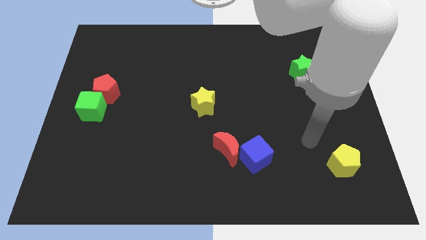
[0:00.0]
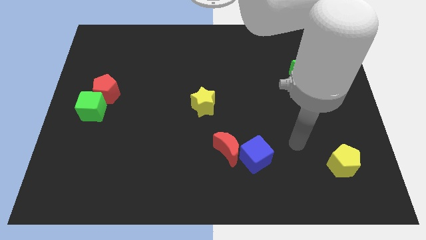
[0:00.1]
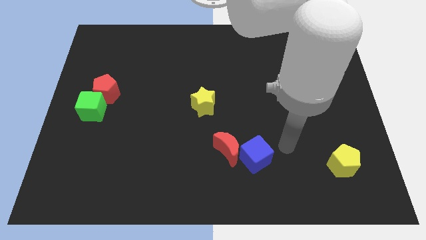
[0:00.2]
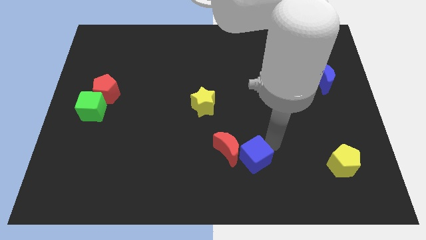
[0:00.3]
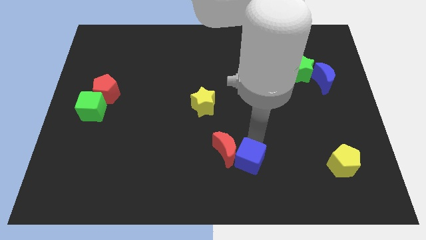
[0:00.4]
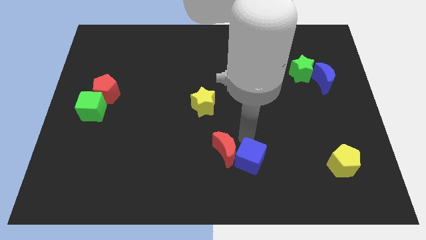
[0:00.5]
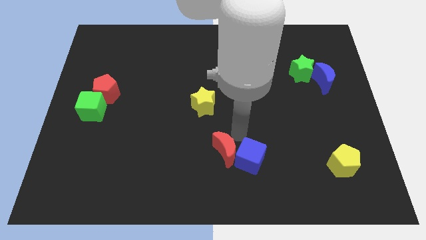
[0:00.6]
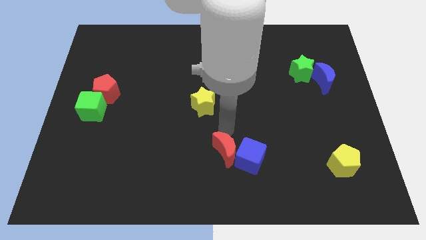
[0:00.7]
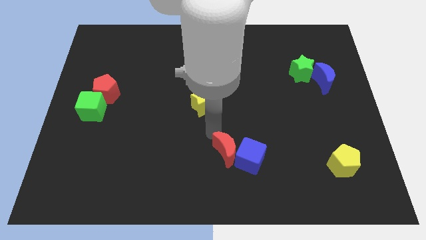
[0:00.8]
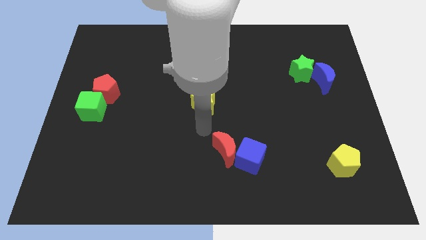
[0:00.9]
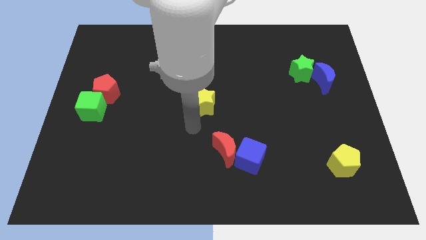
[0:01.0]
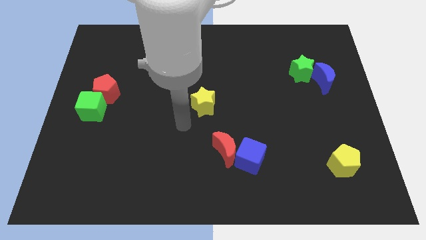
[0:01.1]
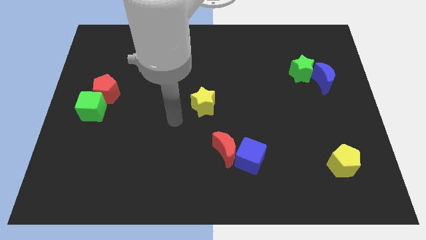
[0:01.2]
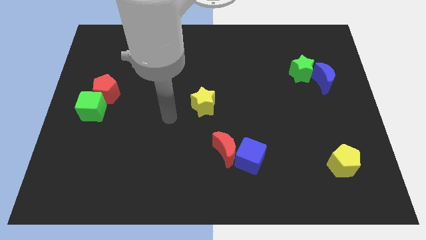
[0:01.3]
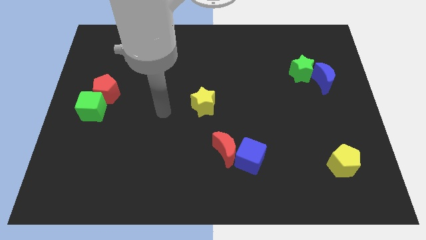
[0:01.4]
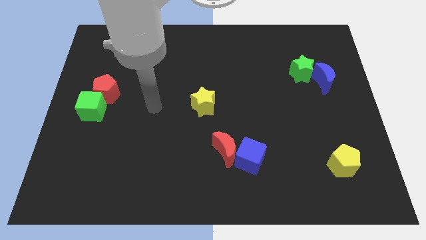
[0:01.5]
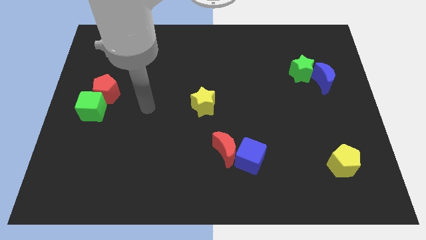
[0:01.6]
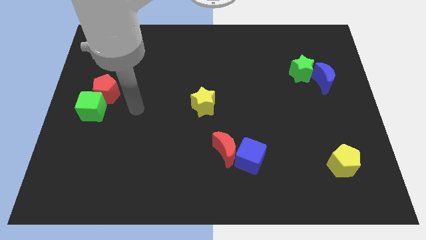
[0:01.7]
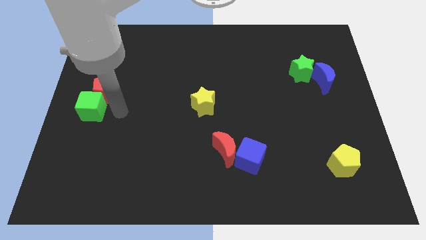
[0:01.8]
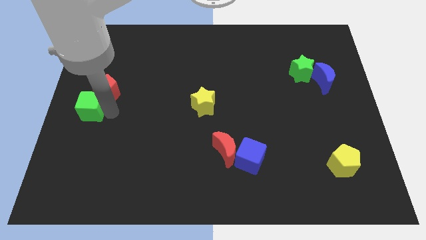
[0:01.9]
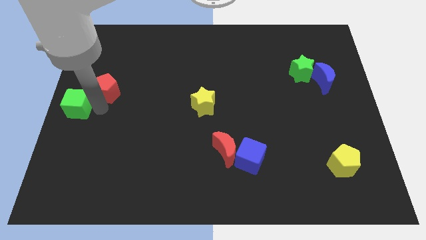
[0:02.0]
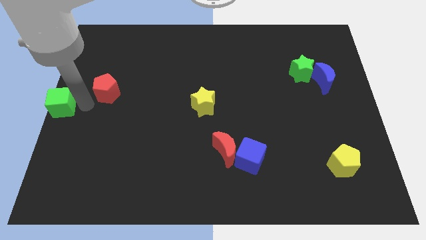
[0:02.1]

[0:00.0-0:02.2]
move the red pentagon away from the green cube

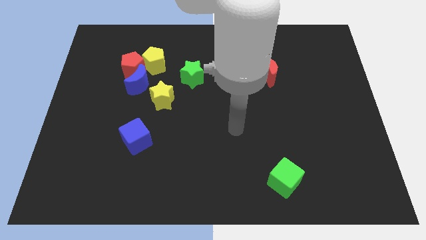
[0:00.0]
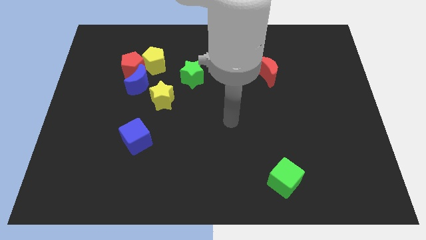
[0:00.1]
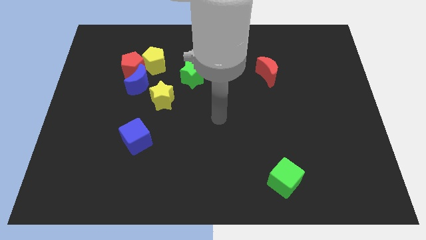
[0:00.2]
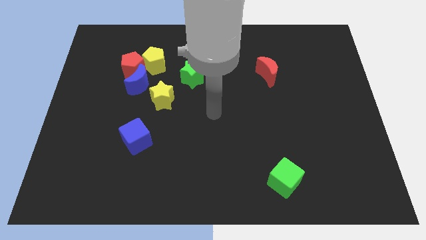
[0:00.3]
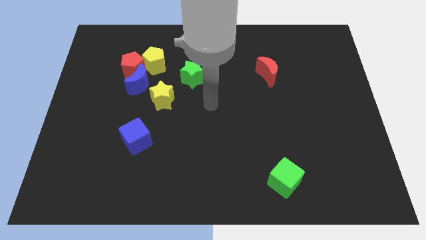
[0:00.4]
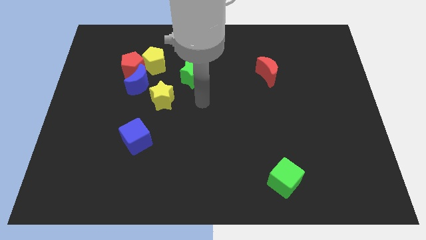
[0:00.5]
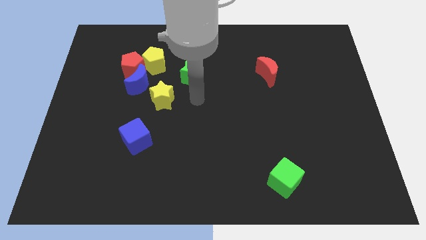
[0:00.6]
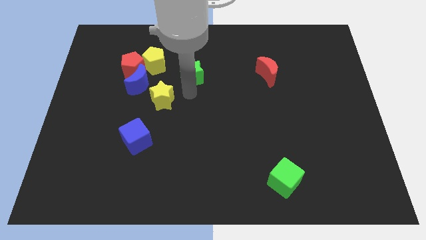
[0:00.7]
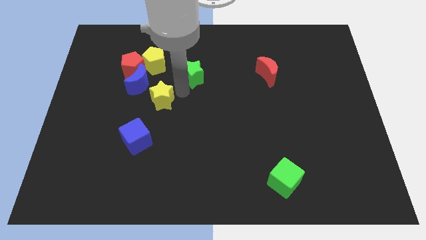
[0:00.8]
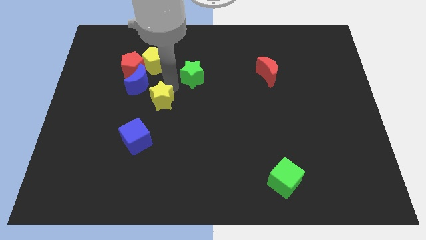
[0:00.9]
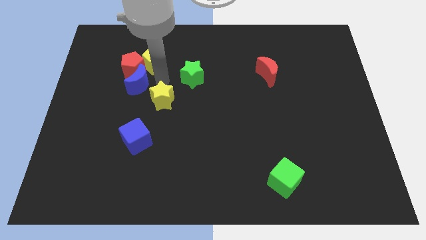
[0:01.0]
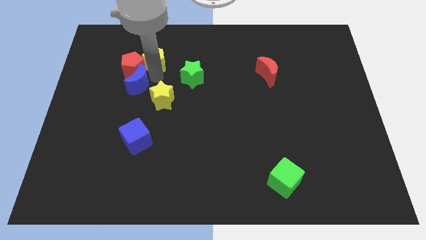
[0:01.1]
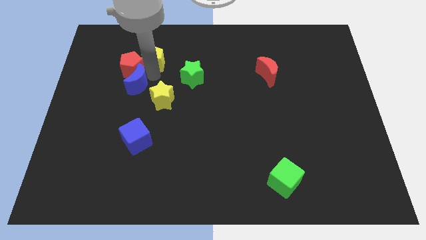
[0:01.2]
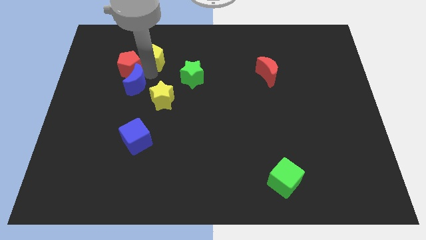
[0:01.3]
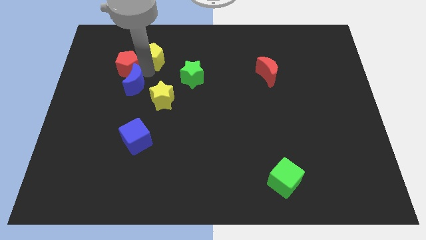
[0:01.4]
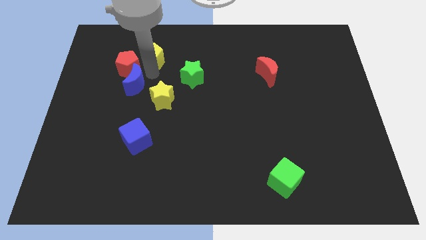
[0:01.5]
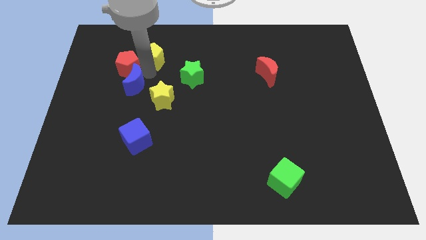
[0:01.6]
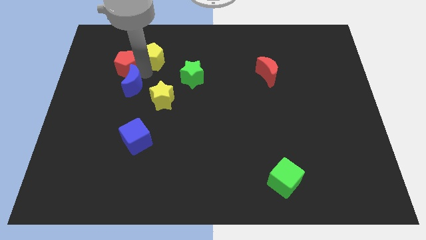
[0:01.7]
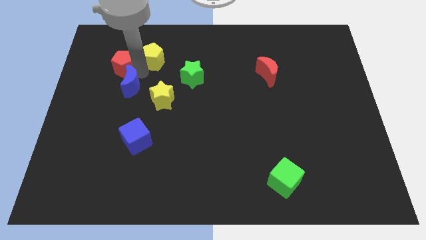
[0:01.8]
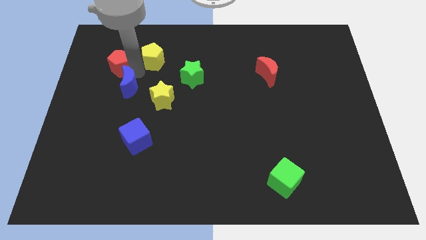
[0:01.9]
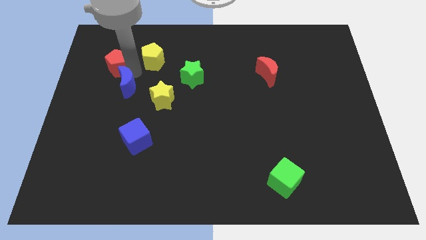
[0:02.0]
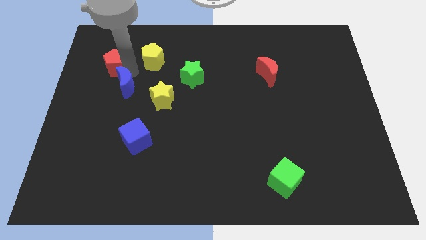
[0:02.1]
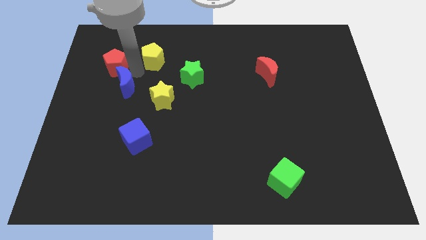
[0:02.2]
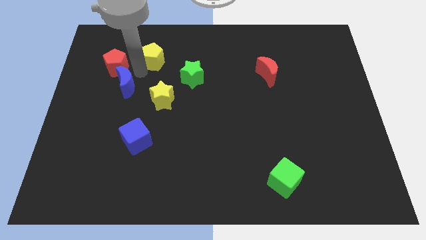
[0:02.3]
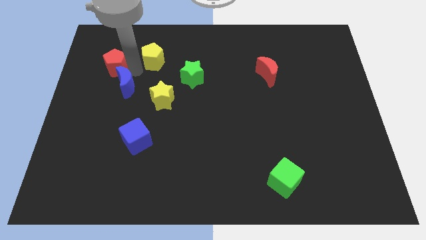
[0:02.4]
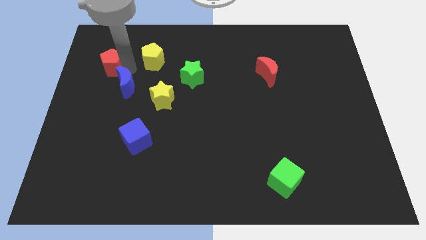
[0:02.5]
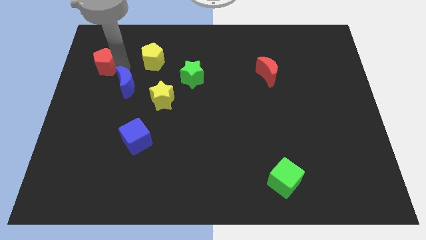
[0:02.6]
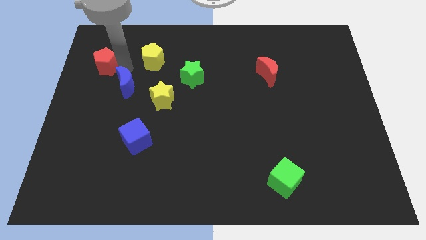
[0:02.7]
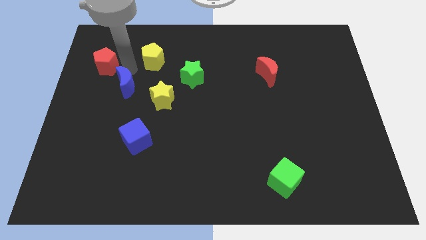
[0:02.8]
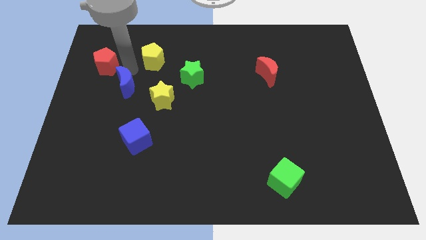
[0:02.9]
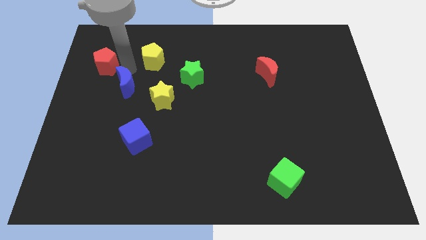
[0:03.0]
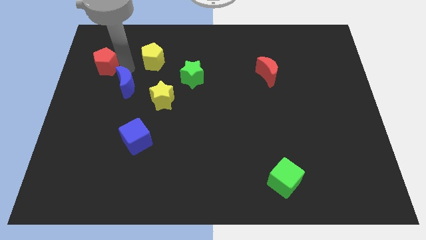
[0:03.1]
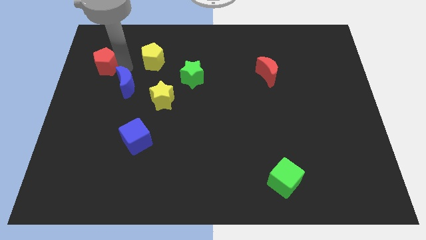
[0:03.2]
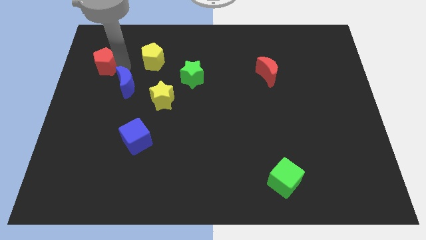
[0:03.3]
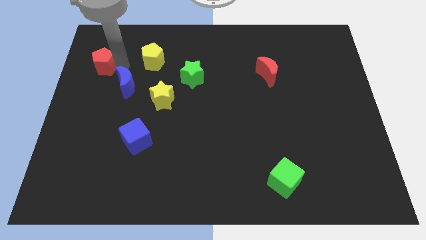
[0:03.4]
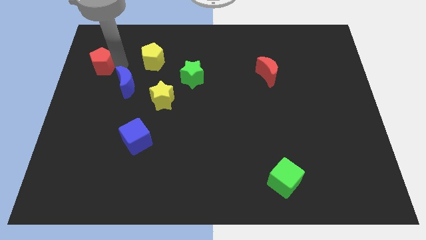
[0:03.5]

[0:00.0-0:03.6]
pull the red pentagon apart from the yellow pentagon and blue moon

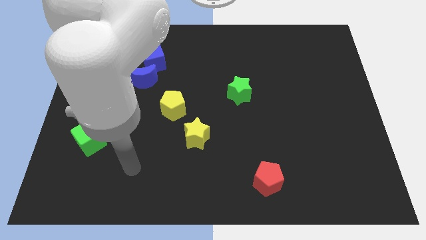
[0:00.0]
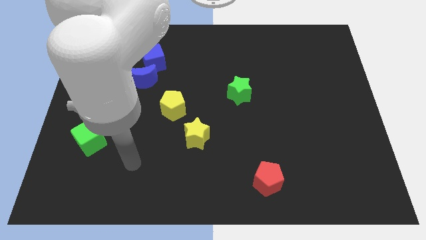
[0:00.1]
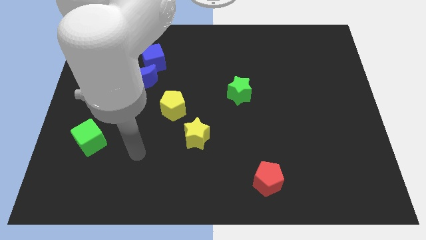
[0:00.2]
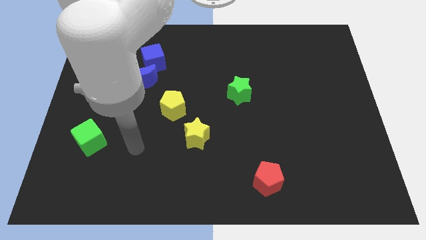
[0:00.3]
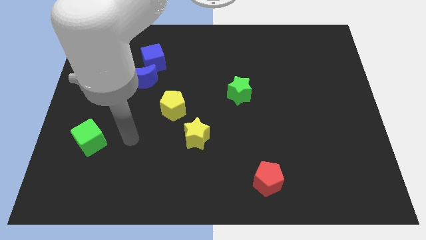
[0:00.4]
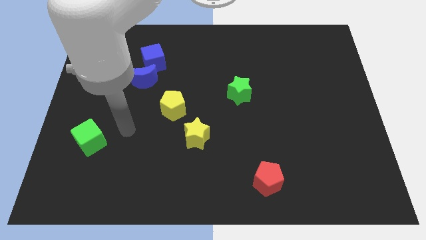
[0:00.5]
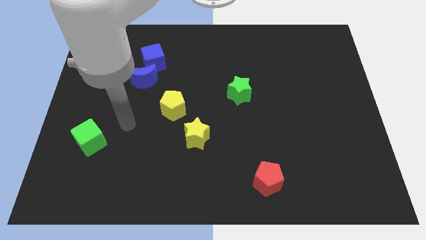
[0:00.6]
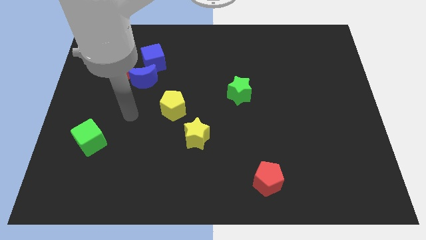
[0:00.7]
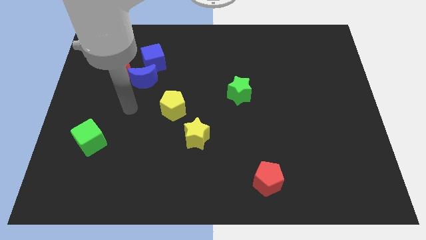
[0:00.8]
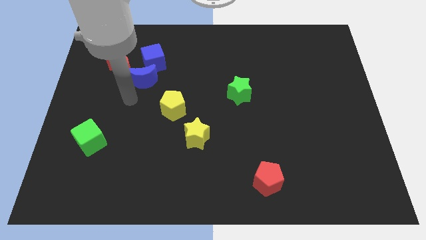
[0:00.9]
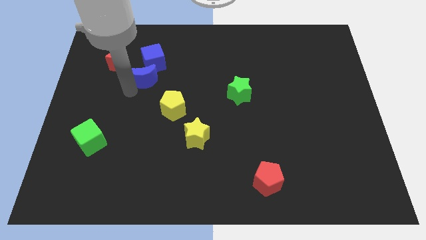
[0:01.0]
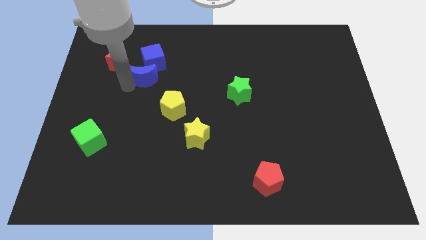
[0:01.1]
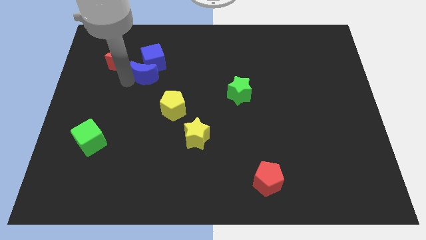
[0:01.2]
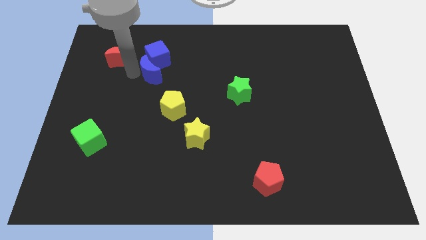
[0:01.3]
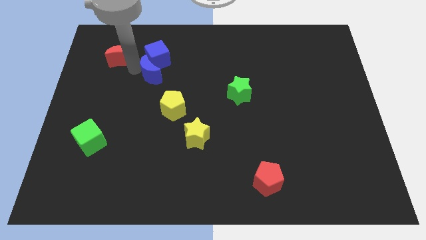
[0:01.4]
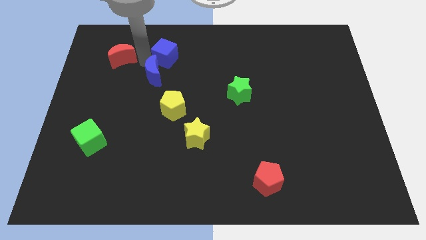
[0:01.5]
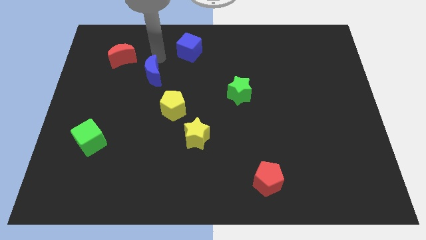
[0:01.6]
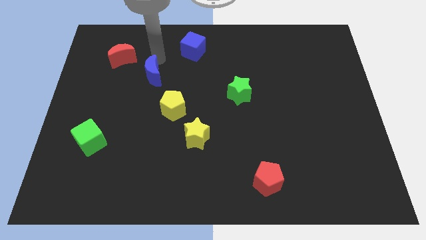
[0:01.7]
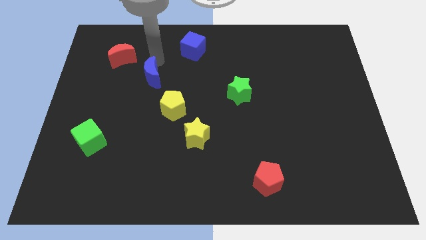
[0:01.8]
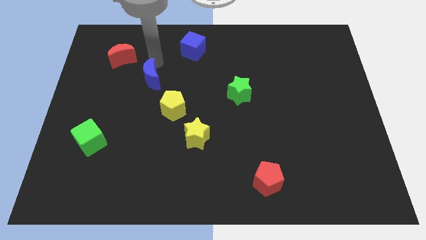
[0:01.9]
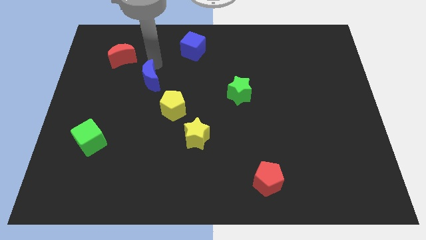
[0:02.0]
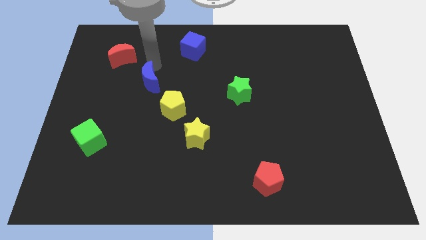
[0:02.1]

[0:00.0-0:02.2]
move the blue moon away from the blue cube and red moon

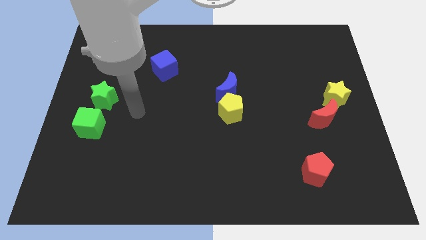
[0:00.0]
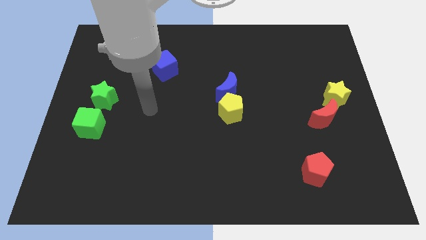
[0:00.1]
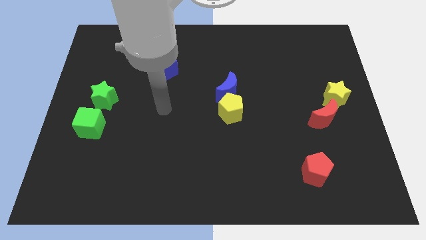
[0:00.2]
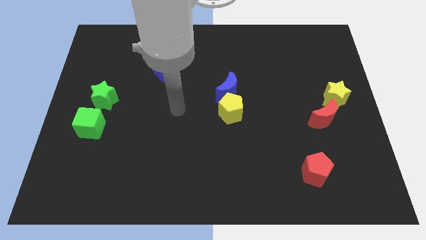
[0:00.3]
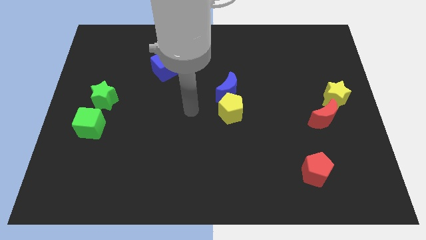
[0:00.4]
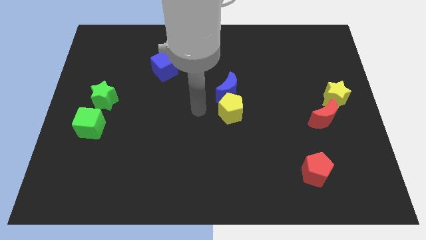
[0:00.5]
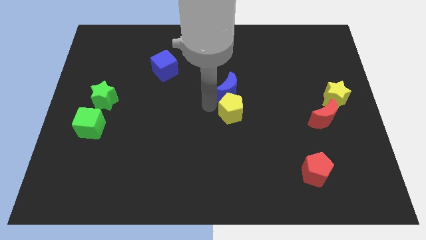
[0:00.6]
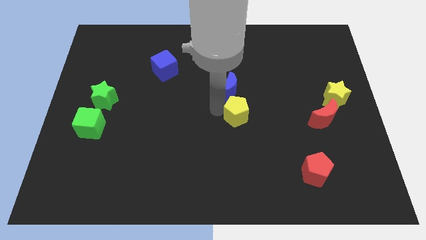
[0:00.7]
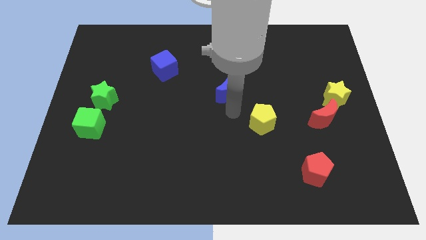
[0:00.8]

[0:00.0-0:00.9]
pull the blue moon apart from the yellow pentagon

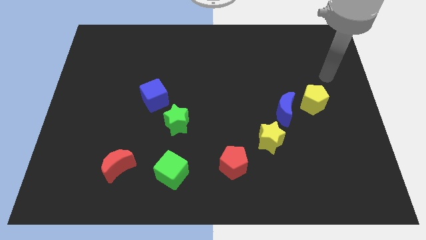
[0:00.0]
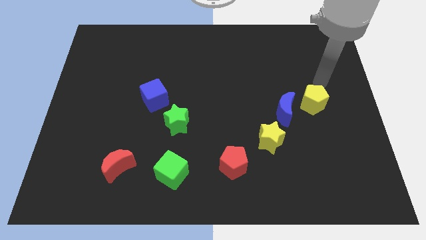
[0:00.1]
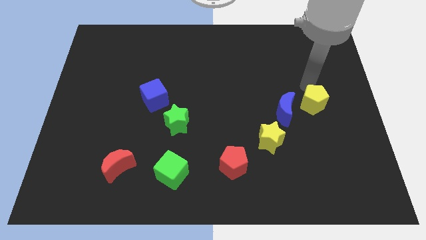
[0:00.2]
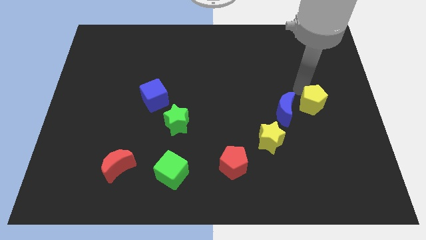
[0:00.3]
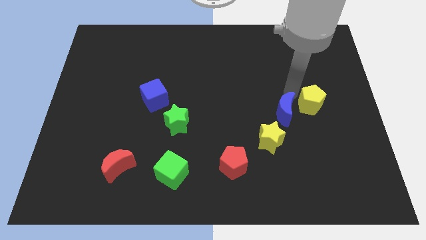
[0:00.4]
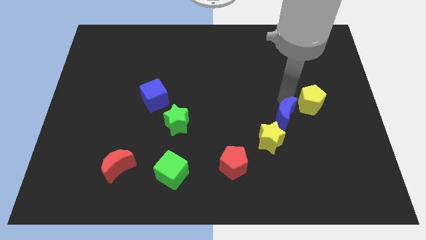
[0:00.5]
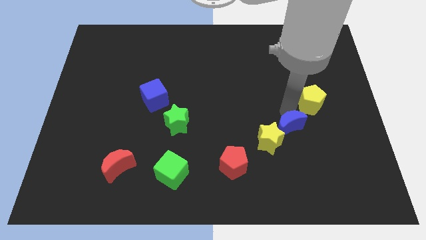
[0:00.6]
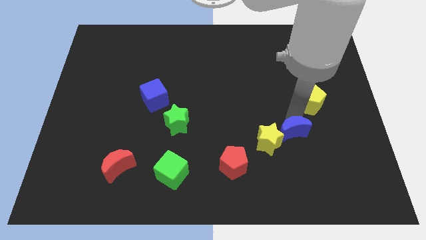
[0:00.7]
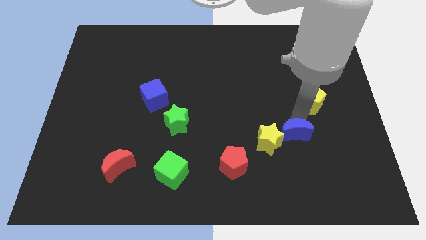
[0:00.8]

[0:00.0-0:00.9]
move the yellow pentagon away from the blue moon
